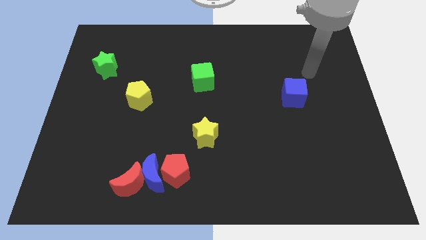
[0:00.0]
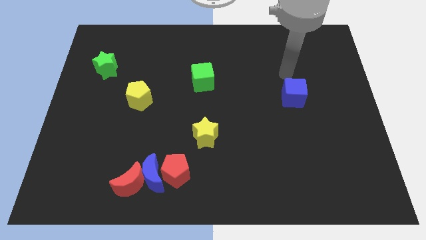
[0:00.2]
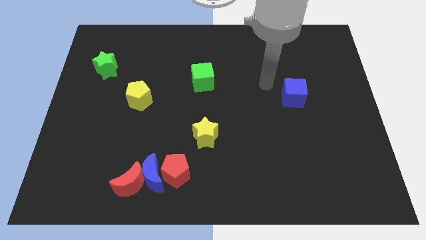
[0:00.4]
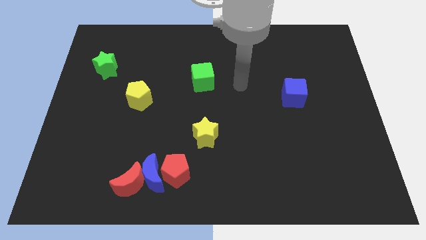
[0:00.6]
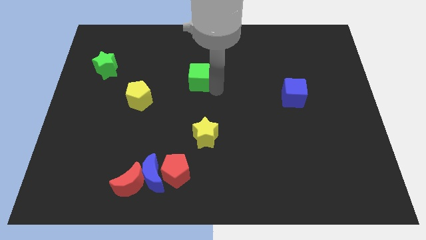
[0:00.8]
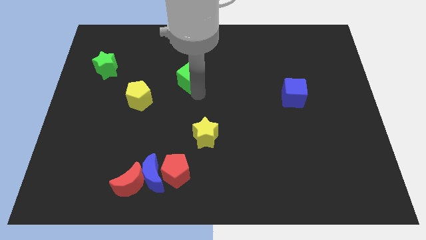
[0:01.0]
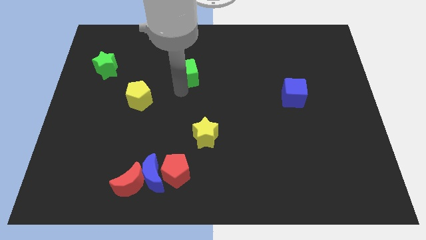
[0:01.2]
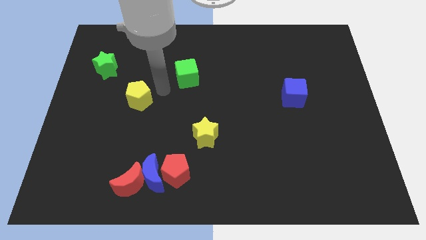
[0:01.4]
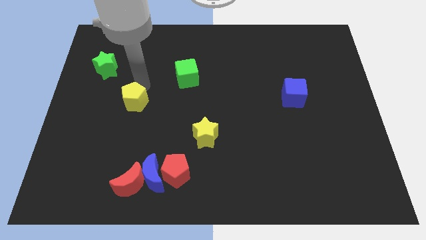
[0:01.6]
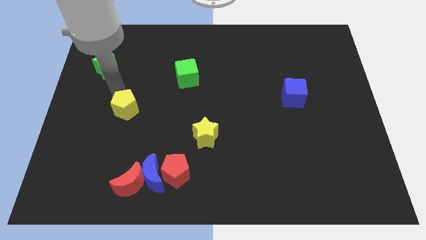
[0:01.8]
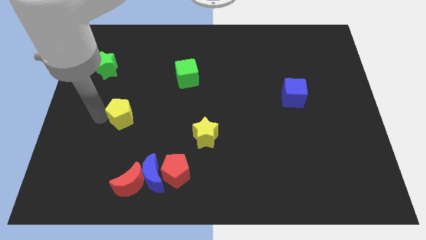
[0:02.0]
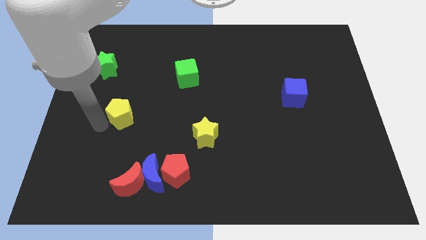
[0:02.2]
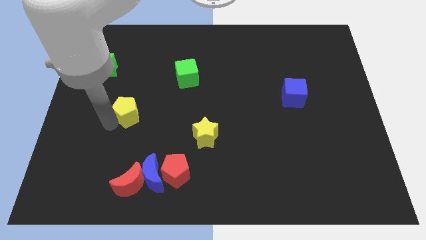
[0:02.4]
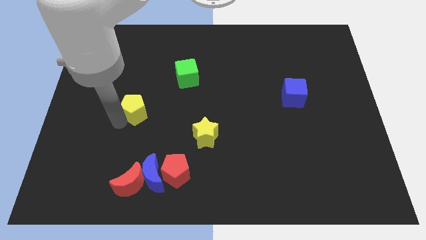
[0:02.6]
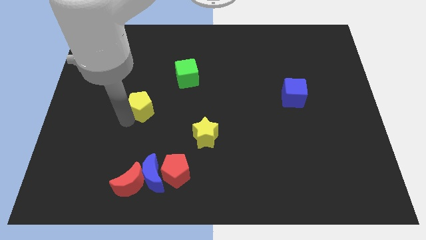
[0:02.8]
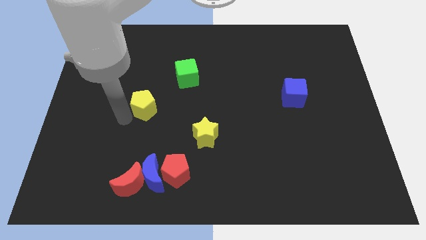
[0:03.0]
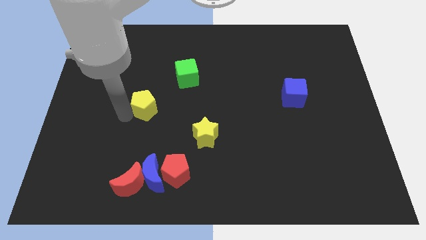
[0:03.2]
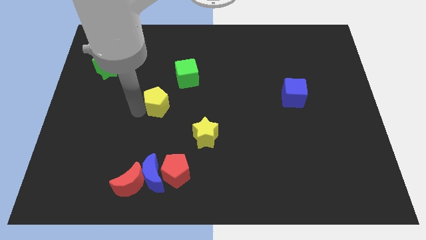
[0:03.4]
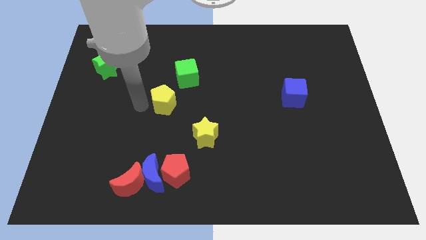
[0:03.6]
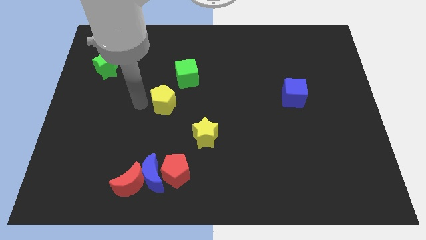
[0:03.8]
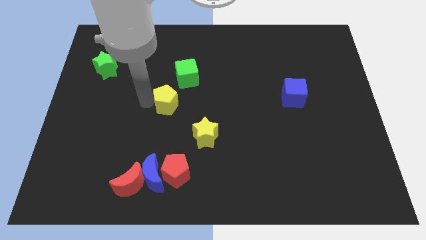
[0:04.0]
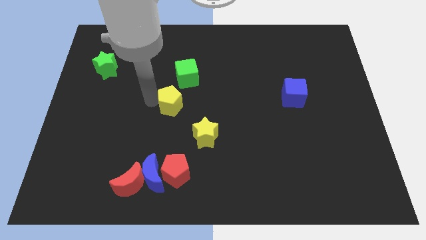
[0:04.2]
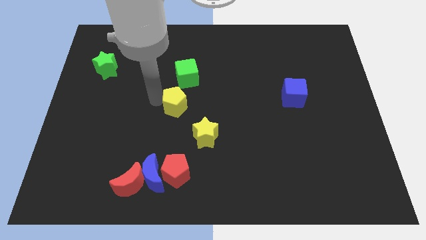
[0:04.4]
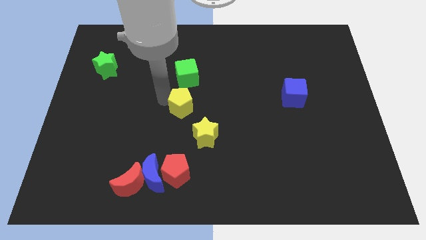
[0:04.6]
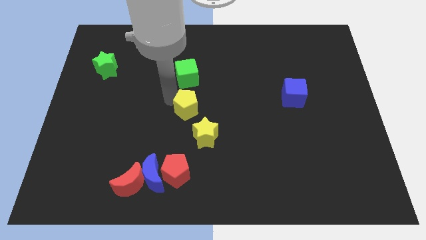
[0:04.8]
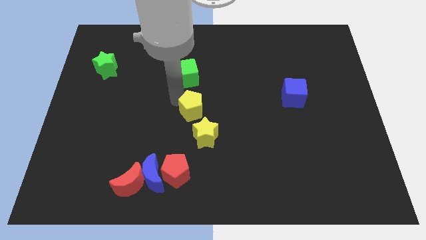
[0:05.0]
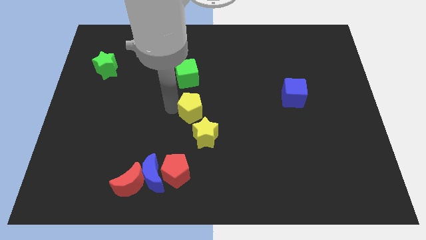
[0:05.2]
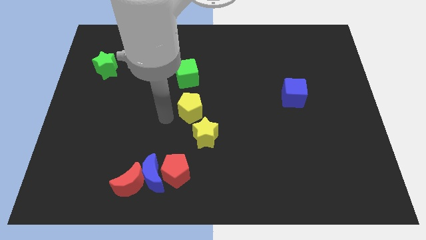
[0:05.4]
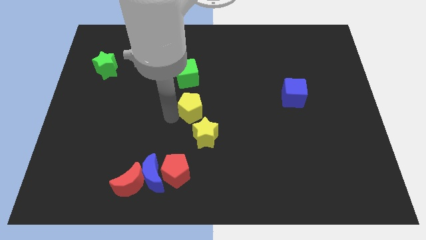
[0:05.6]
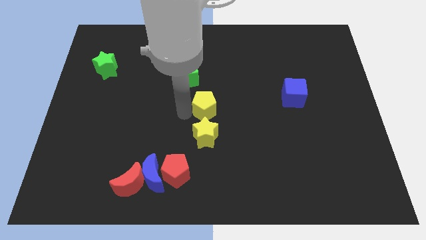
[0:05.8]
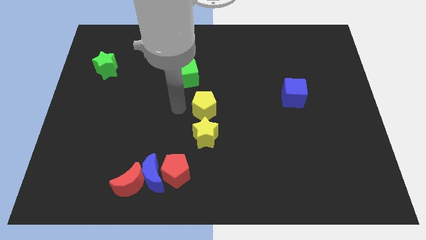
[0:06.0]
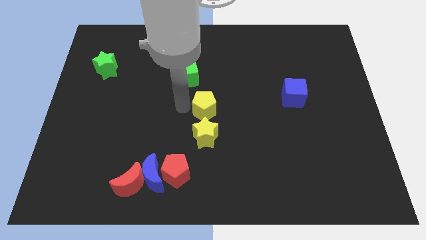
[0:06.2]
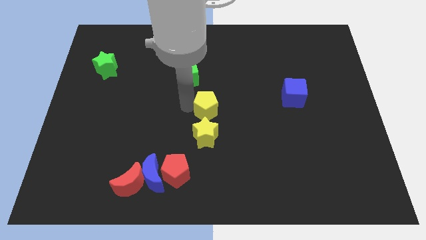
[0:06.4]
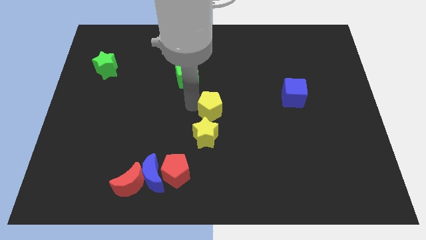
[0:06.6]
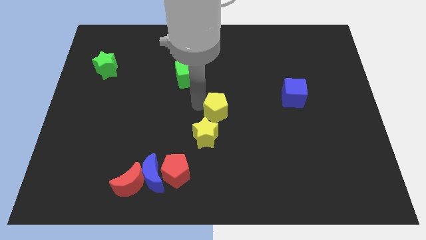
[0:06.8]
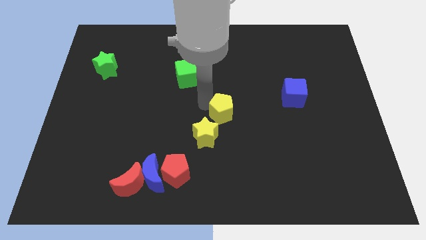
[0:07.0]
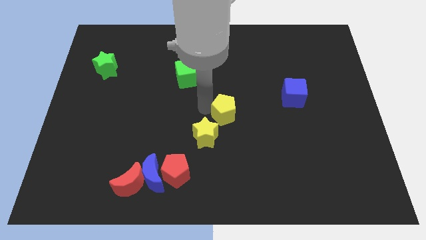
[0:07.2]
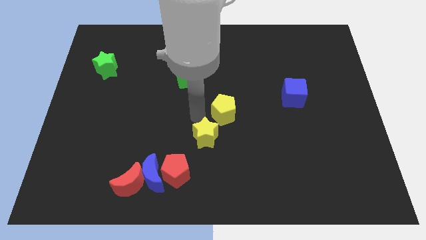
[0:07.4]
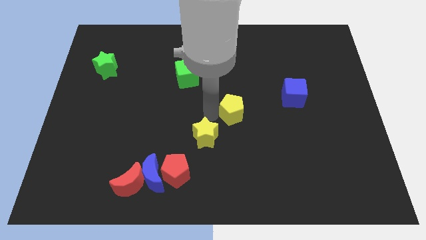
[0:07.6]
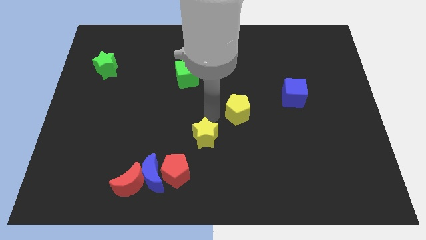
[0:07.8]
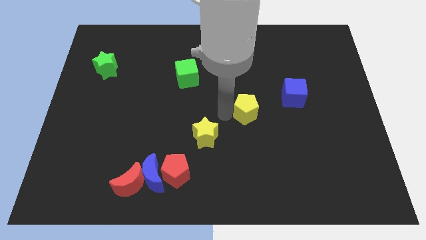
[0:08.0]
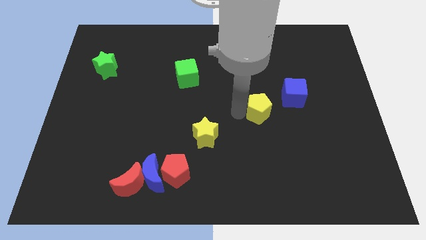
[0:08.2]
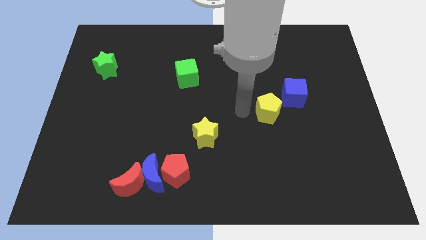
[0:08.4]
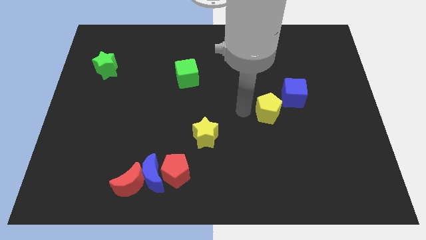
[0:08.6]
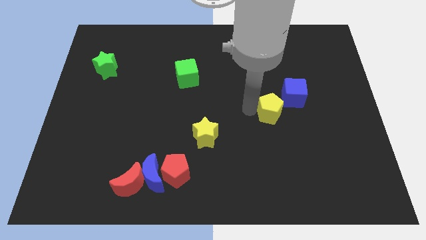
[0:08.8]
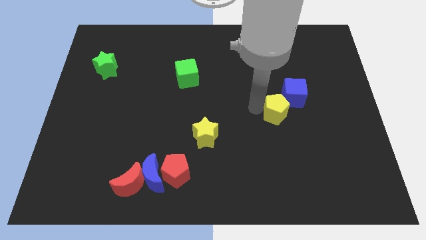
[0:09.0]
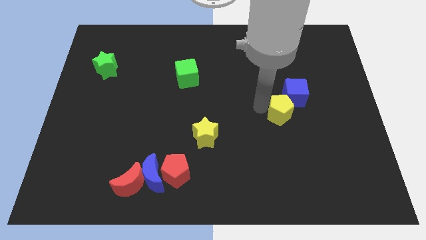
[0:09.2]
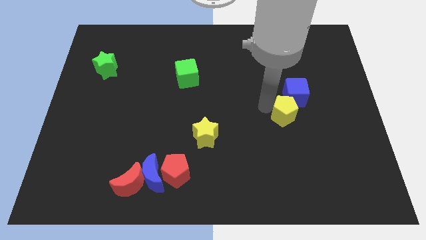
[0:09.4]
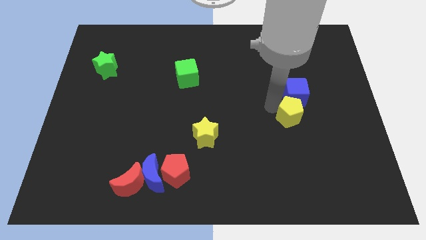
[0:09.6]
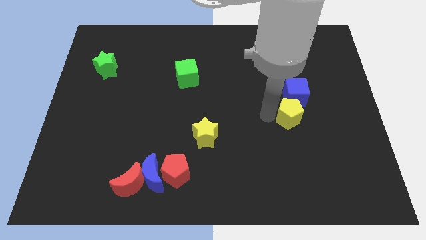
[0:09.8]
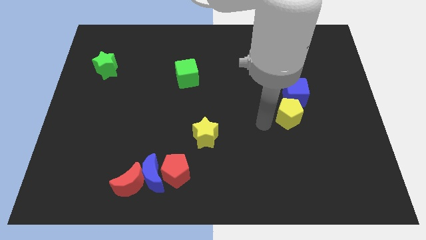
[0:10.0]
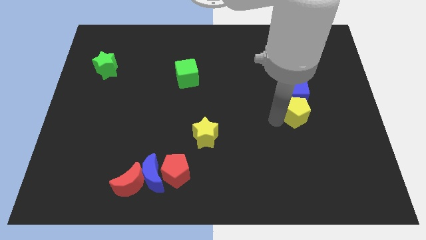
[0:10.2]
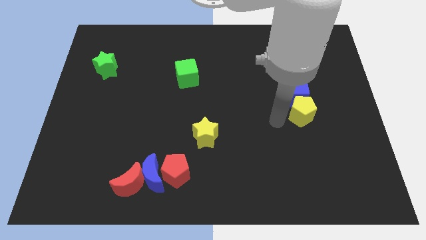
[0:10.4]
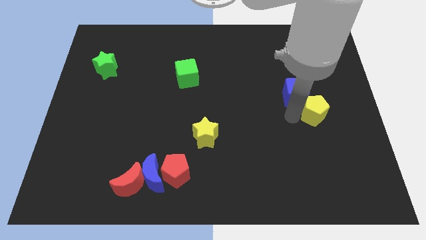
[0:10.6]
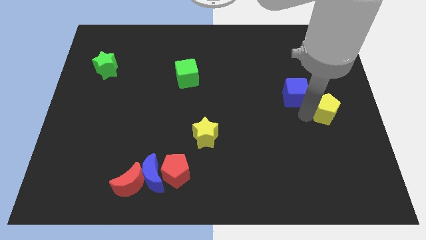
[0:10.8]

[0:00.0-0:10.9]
slide the yellow pentagon to the right side of the board

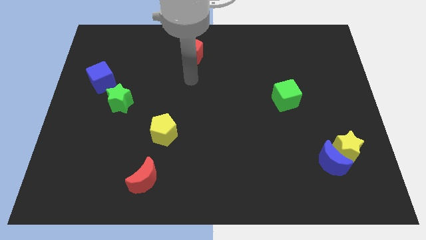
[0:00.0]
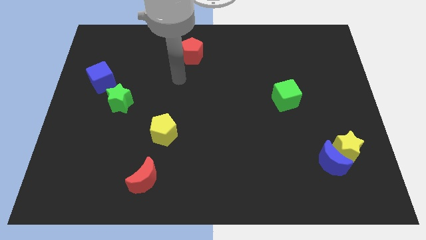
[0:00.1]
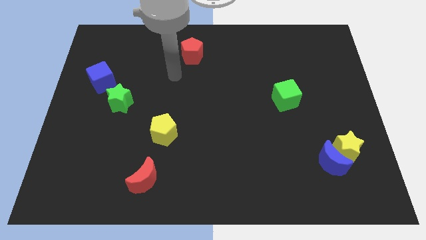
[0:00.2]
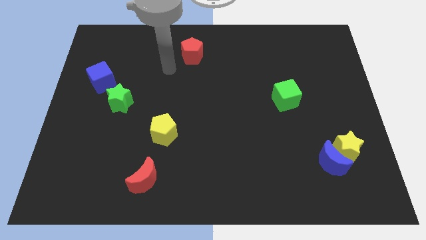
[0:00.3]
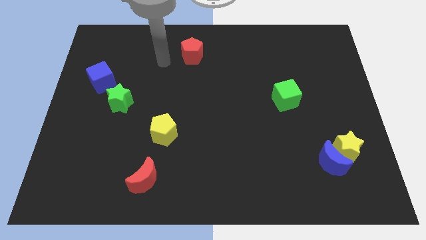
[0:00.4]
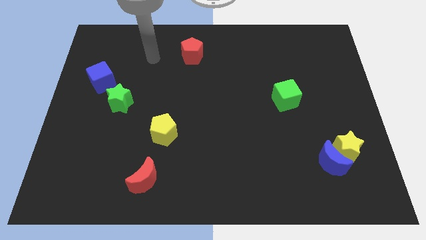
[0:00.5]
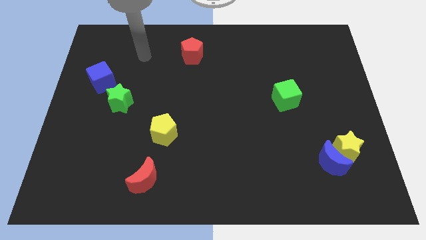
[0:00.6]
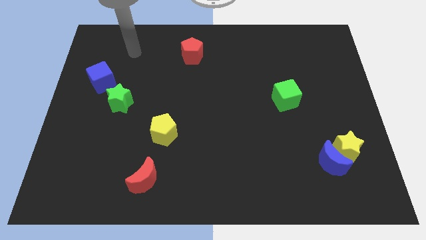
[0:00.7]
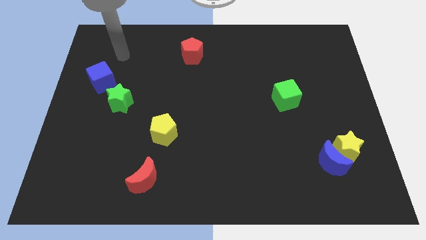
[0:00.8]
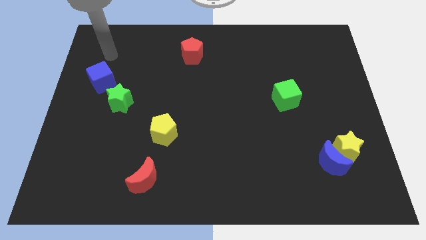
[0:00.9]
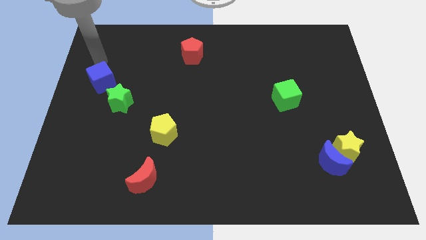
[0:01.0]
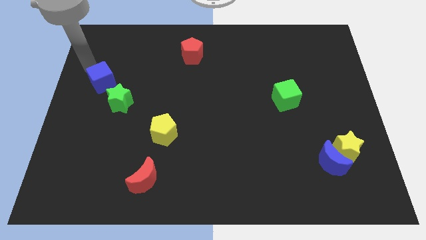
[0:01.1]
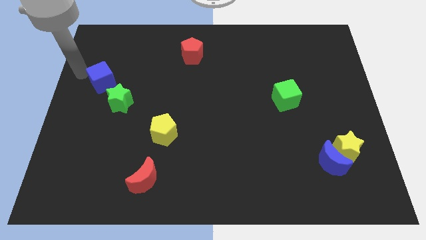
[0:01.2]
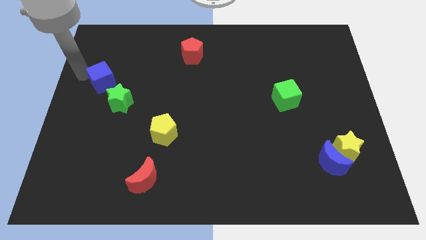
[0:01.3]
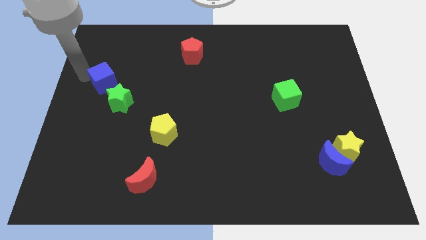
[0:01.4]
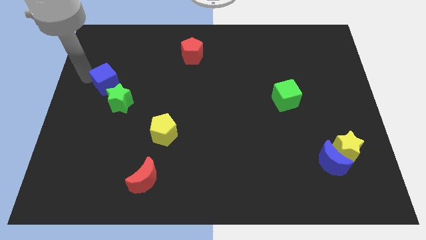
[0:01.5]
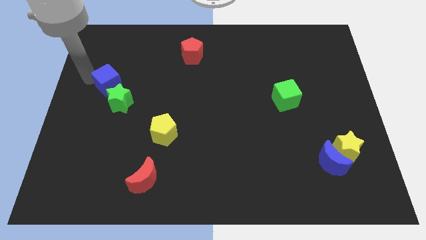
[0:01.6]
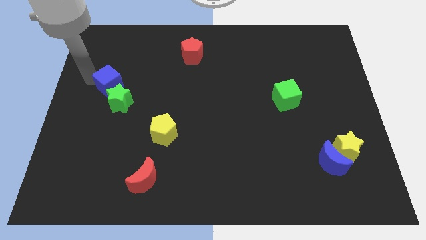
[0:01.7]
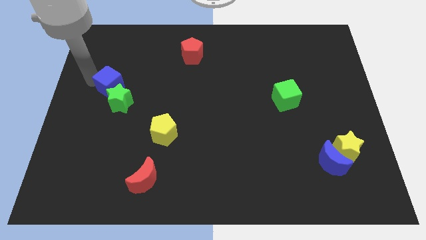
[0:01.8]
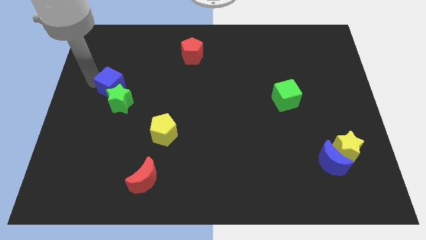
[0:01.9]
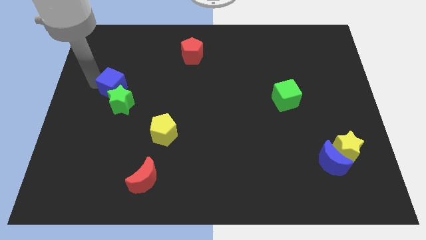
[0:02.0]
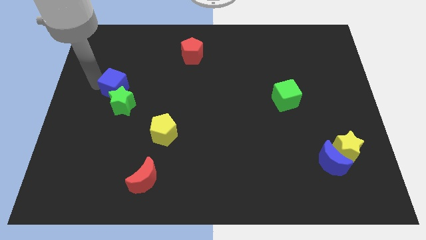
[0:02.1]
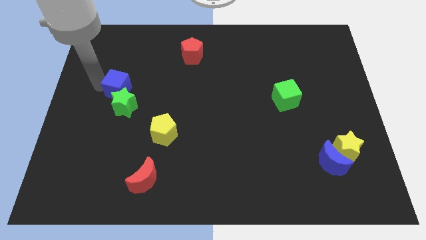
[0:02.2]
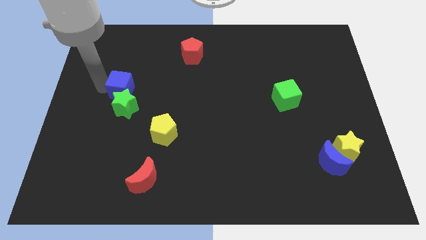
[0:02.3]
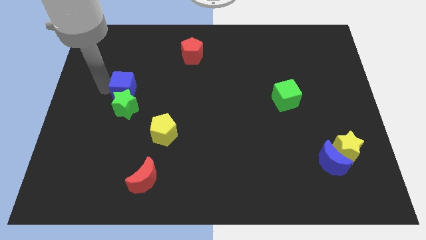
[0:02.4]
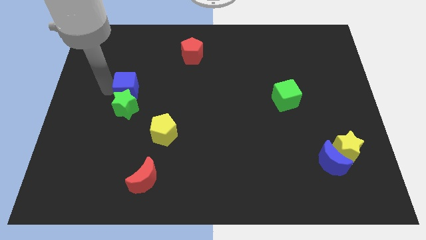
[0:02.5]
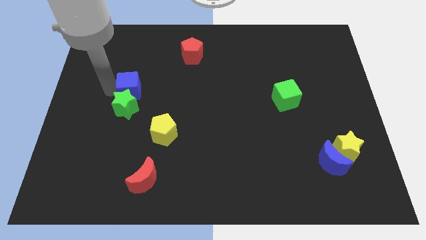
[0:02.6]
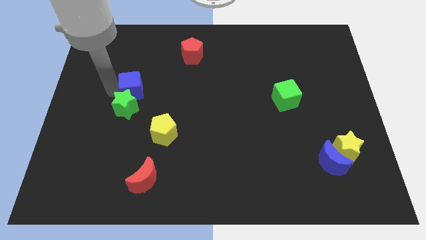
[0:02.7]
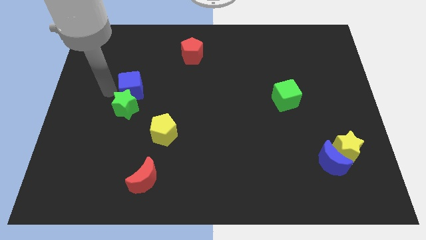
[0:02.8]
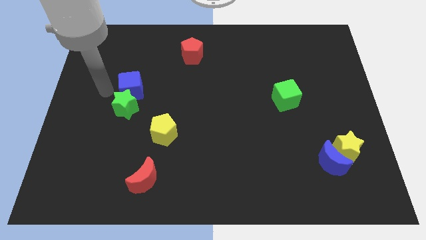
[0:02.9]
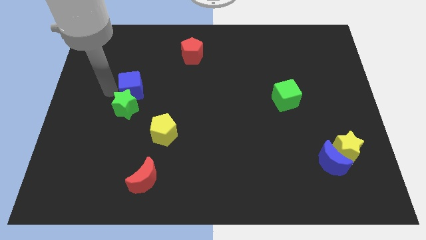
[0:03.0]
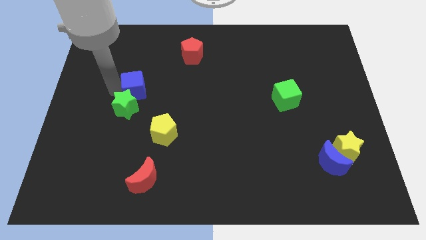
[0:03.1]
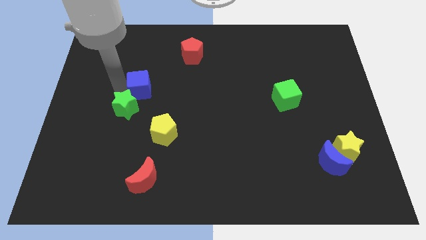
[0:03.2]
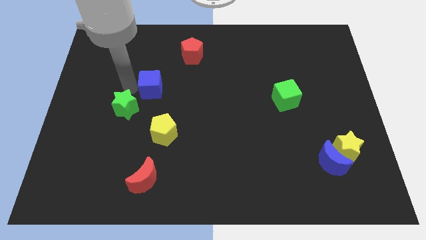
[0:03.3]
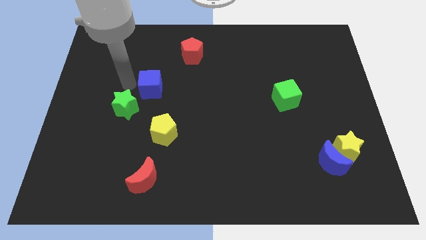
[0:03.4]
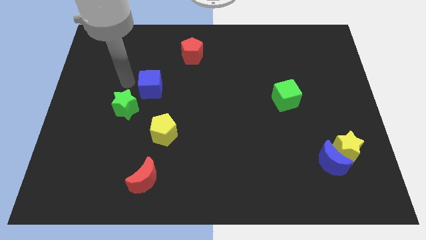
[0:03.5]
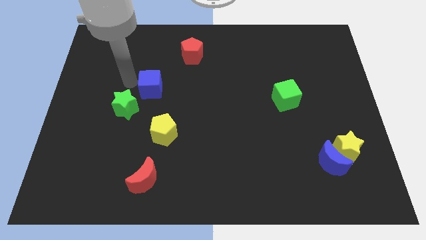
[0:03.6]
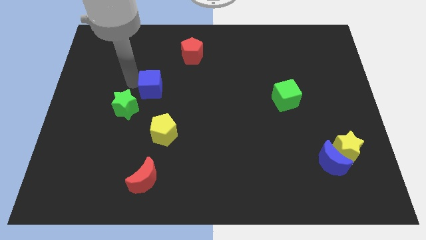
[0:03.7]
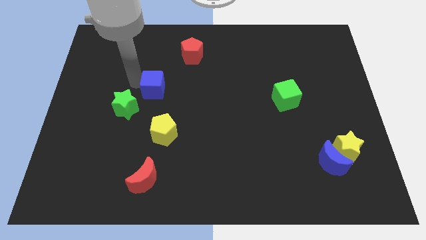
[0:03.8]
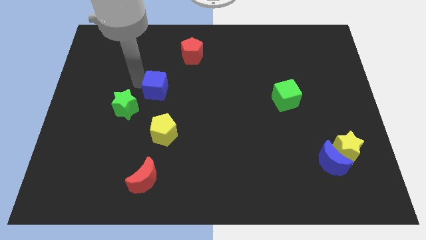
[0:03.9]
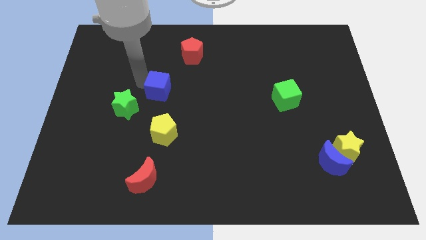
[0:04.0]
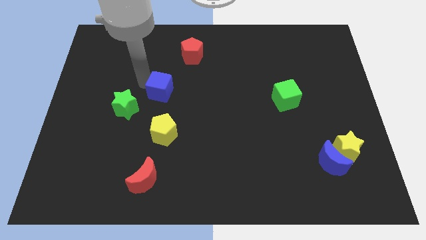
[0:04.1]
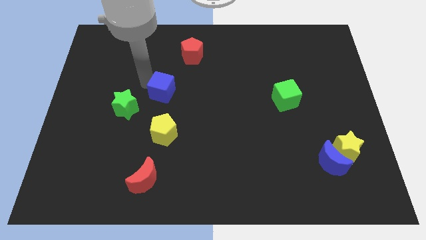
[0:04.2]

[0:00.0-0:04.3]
put the blue cube to the center of the board
